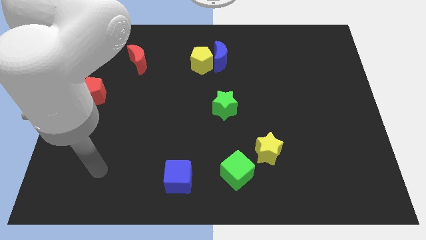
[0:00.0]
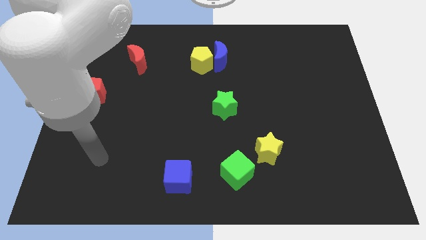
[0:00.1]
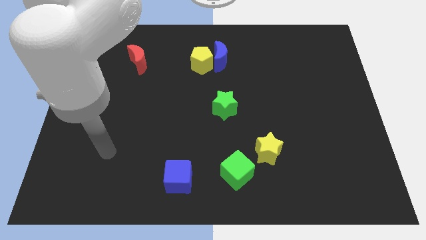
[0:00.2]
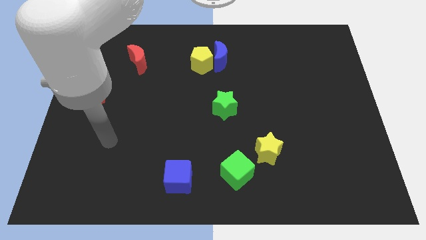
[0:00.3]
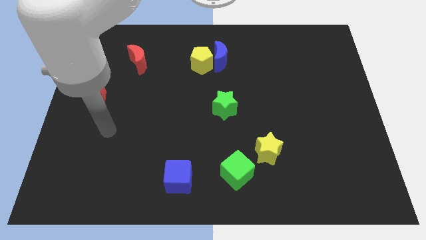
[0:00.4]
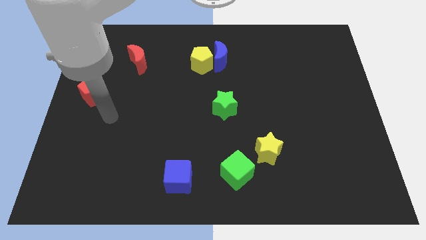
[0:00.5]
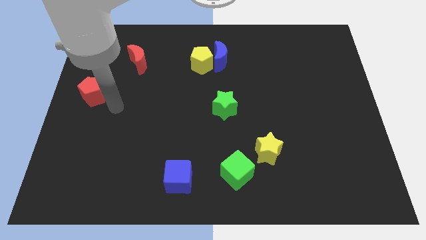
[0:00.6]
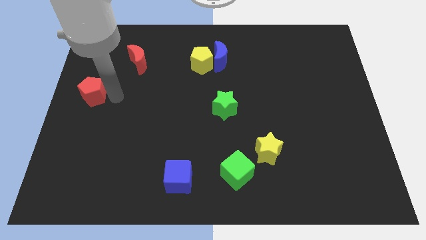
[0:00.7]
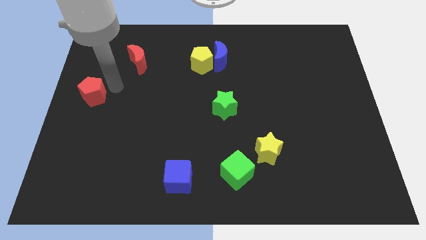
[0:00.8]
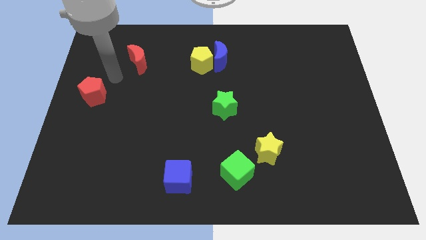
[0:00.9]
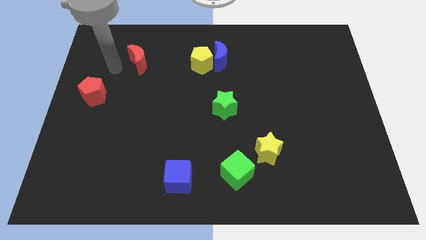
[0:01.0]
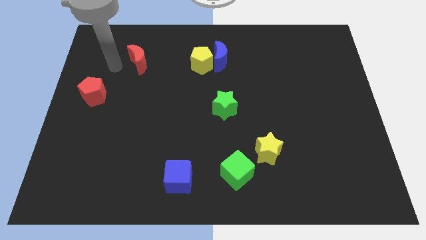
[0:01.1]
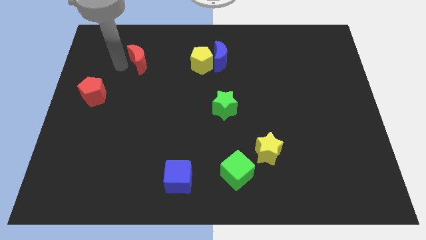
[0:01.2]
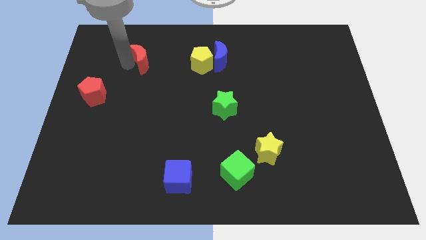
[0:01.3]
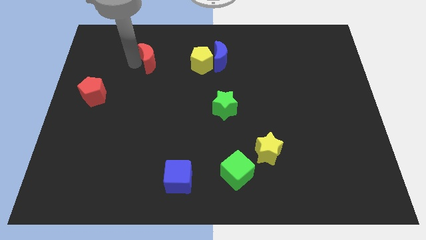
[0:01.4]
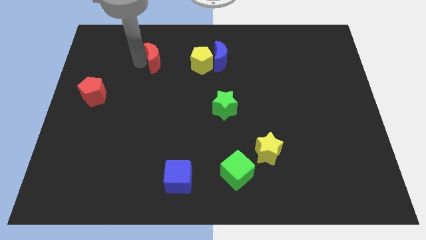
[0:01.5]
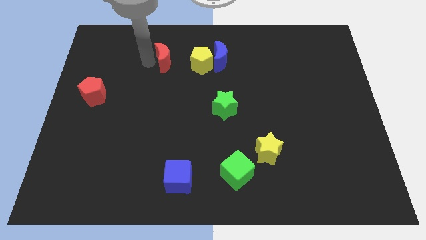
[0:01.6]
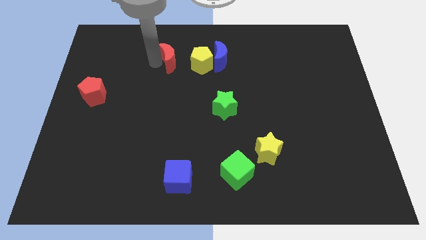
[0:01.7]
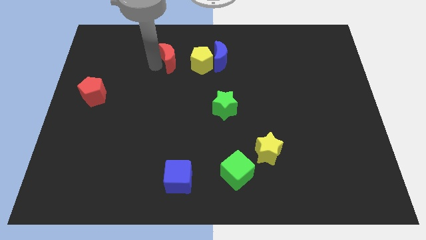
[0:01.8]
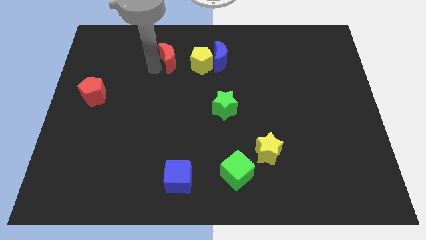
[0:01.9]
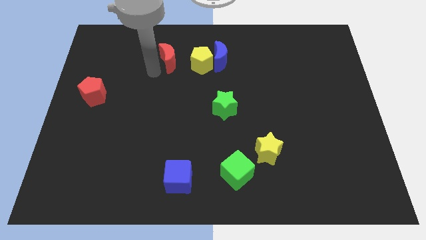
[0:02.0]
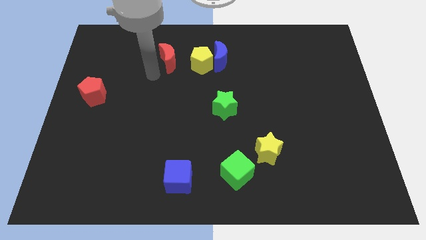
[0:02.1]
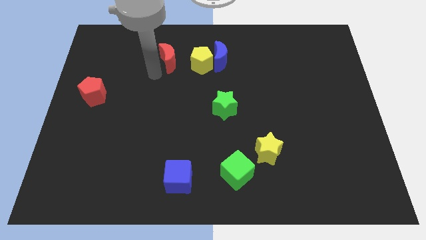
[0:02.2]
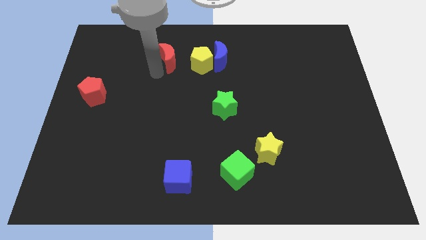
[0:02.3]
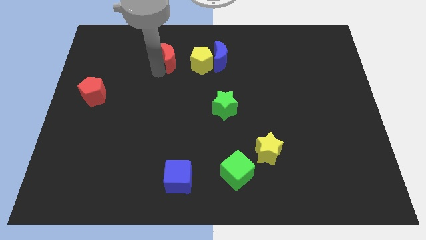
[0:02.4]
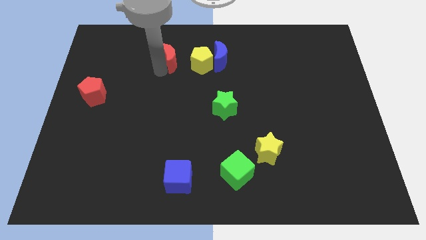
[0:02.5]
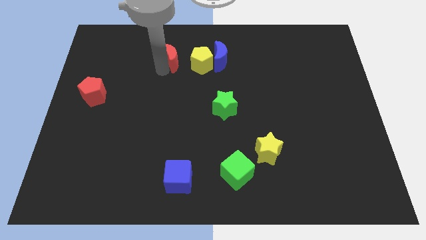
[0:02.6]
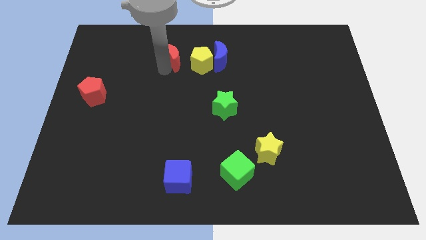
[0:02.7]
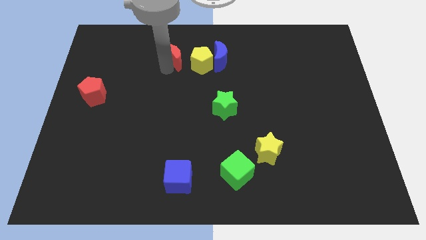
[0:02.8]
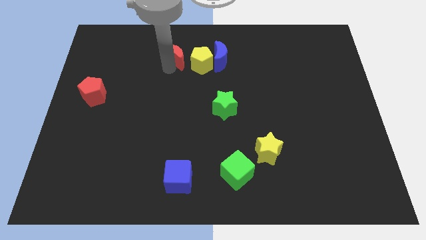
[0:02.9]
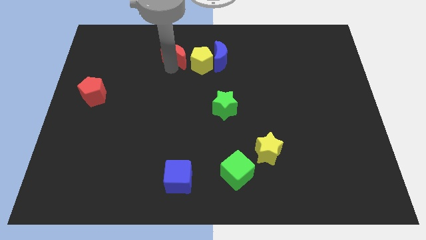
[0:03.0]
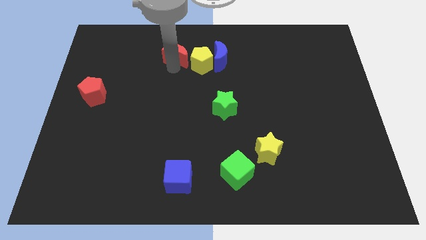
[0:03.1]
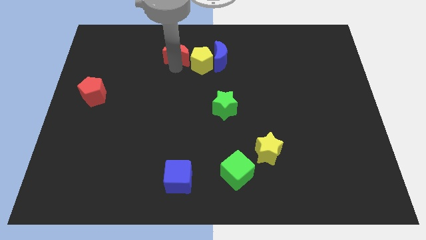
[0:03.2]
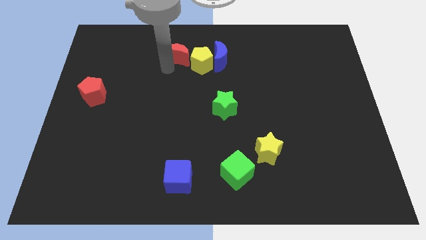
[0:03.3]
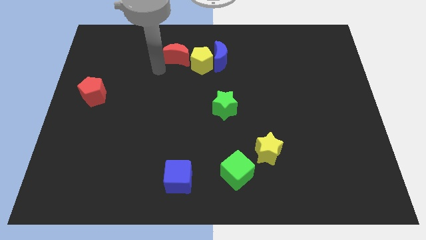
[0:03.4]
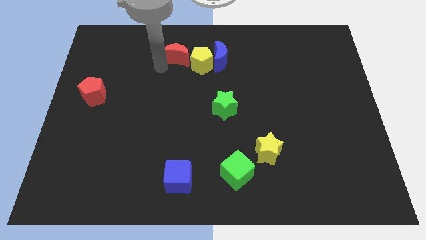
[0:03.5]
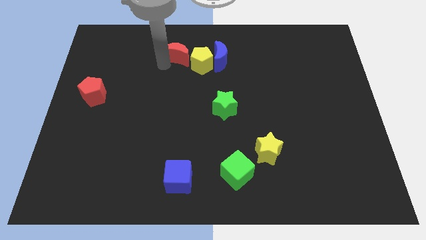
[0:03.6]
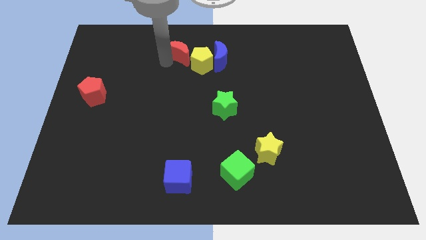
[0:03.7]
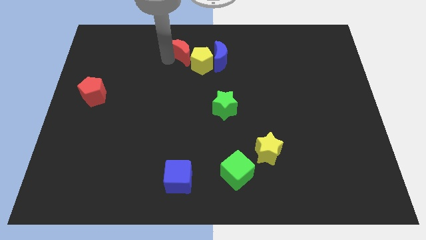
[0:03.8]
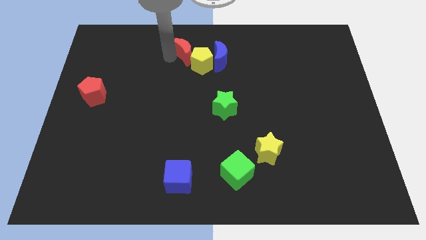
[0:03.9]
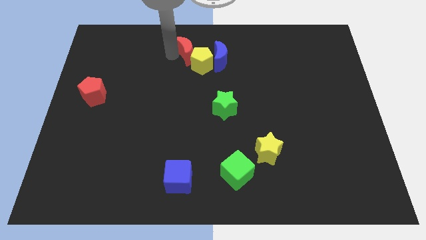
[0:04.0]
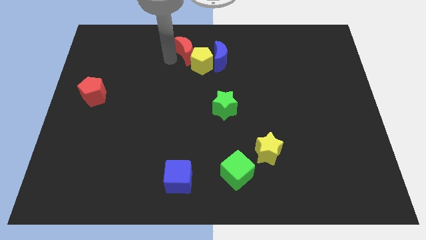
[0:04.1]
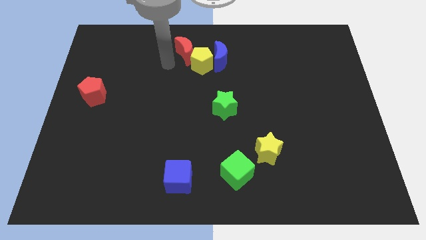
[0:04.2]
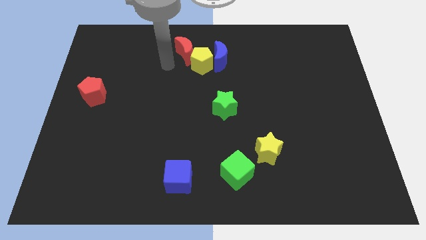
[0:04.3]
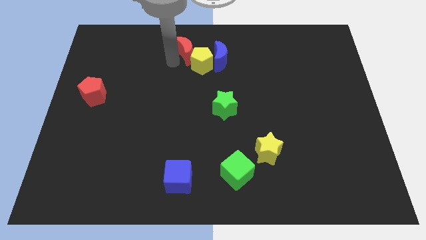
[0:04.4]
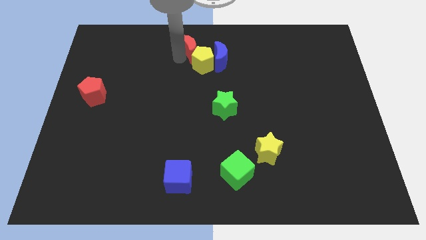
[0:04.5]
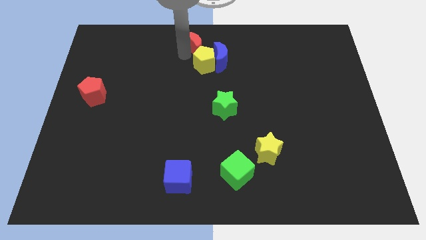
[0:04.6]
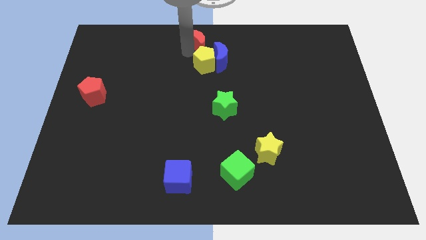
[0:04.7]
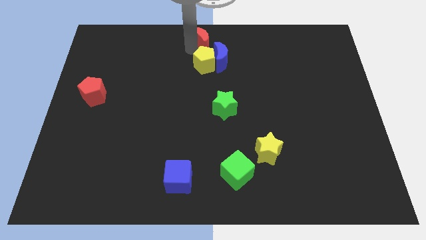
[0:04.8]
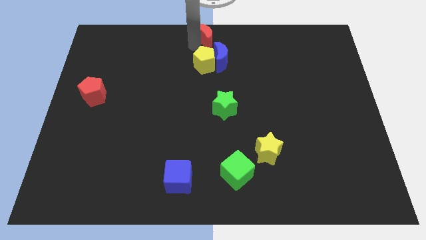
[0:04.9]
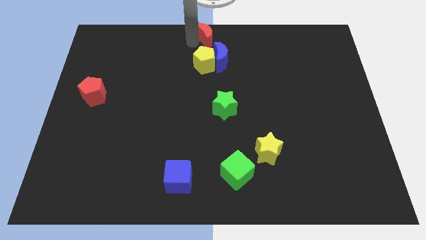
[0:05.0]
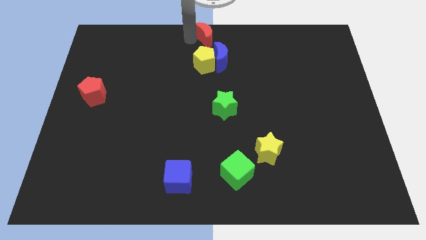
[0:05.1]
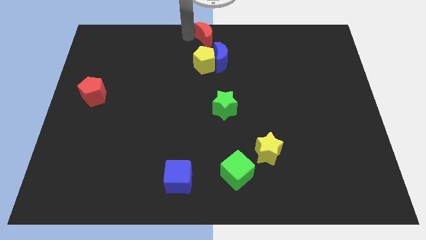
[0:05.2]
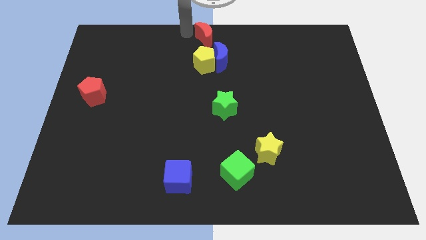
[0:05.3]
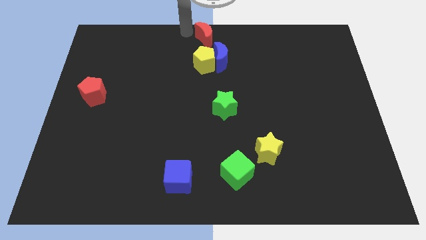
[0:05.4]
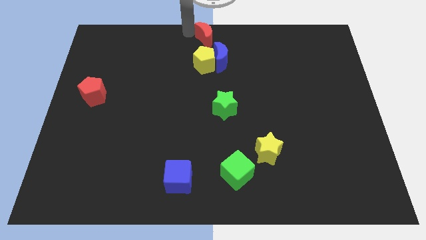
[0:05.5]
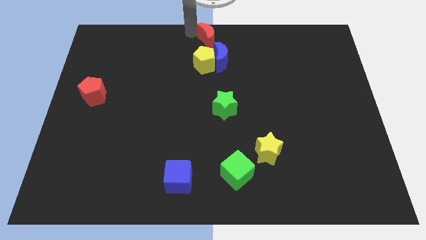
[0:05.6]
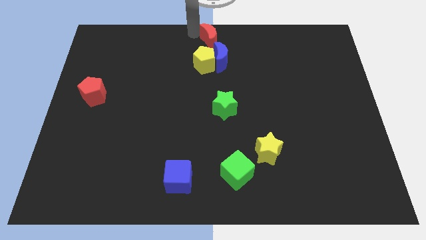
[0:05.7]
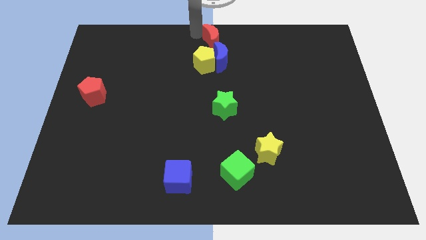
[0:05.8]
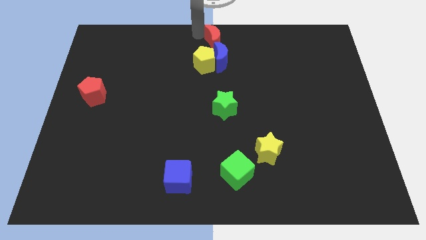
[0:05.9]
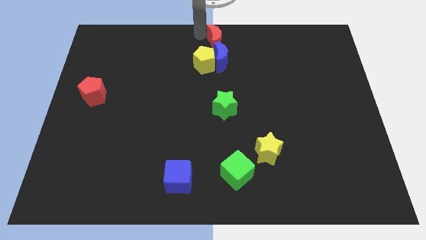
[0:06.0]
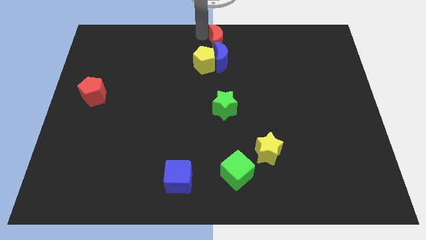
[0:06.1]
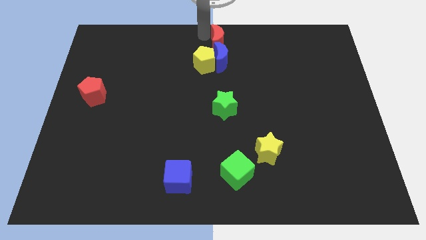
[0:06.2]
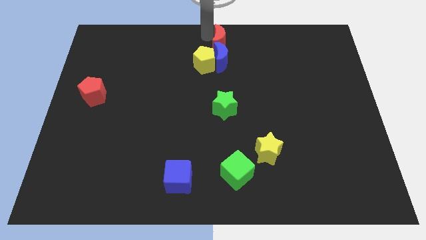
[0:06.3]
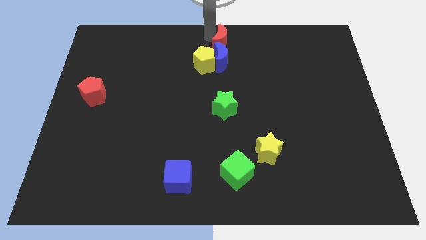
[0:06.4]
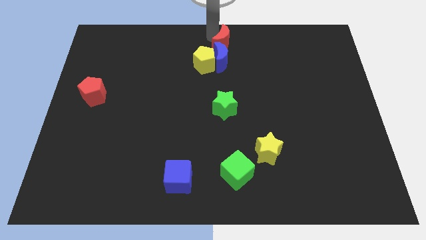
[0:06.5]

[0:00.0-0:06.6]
slide the red moon to the right

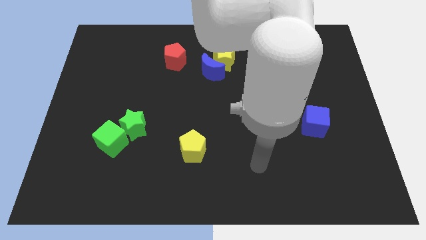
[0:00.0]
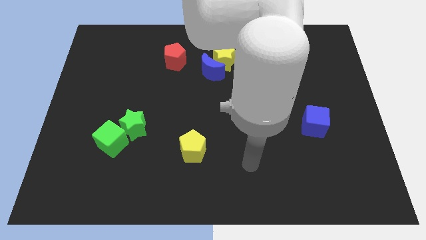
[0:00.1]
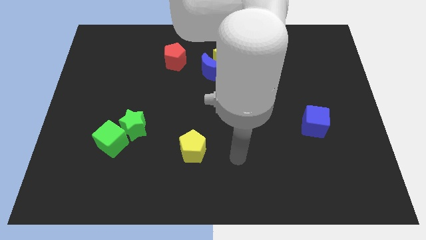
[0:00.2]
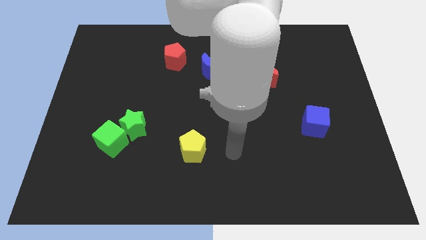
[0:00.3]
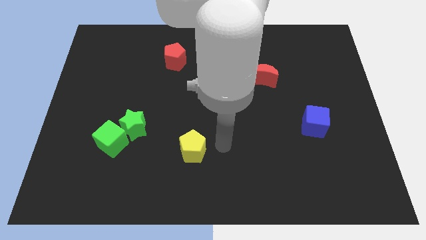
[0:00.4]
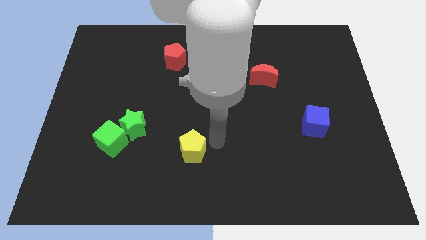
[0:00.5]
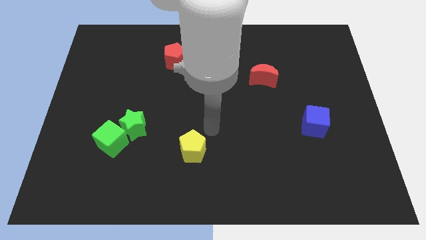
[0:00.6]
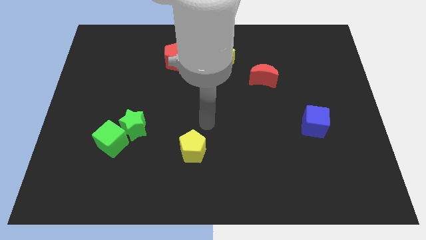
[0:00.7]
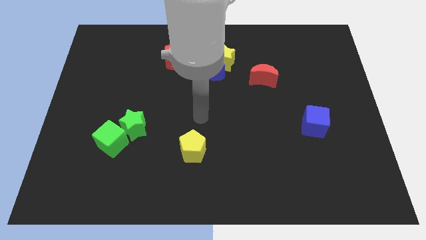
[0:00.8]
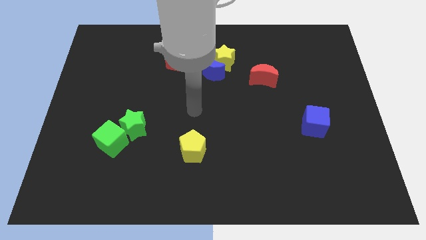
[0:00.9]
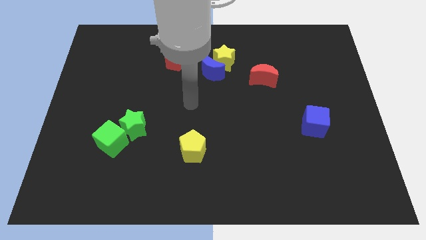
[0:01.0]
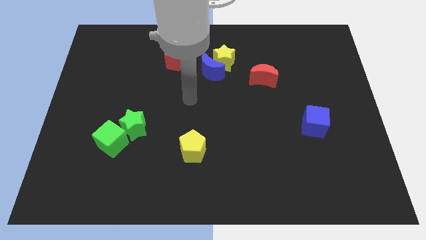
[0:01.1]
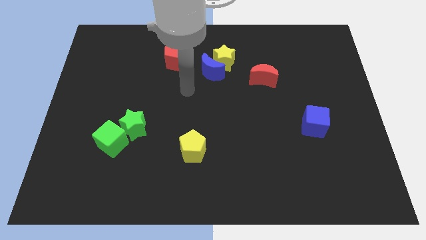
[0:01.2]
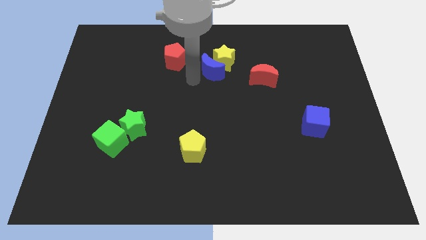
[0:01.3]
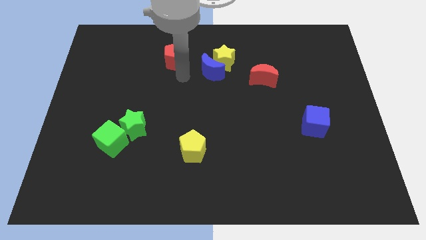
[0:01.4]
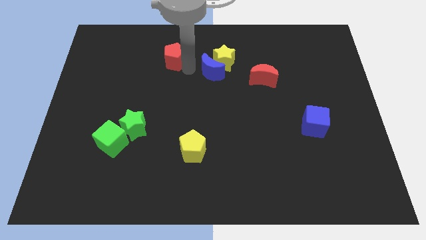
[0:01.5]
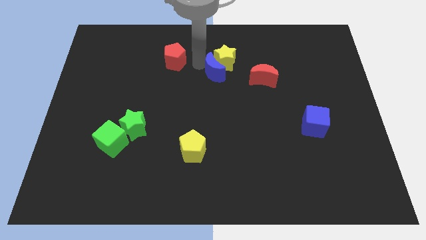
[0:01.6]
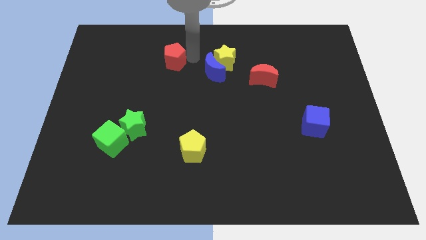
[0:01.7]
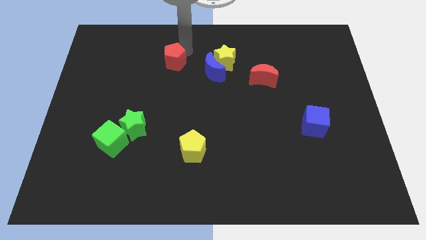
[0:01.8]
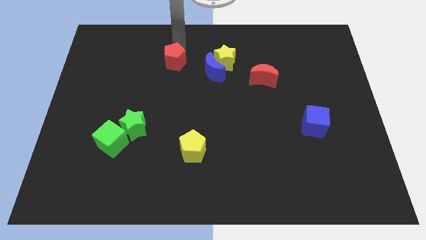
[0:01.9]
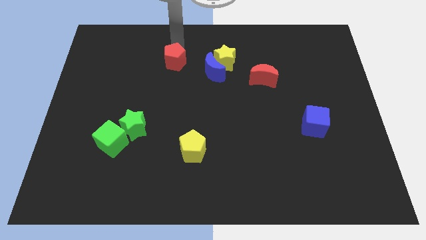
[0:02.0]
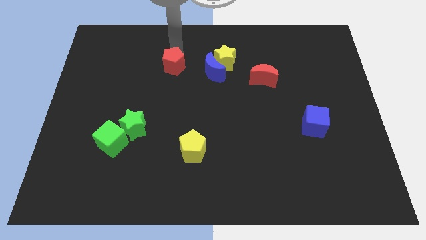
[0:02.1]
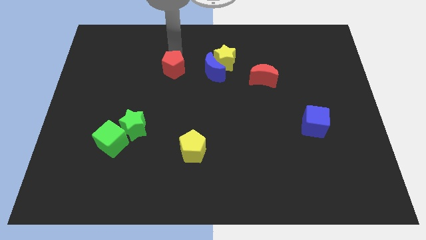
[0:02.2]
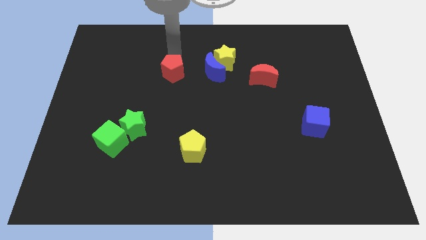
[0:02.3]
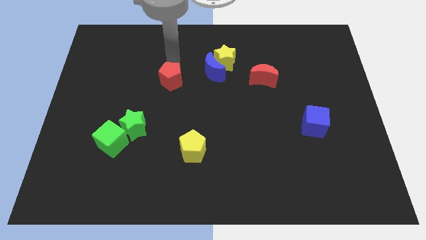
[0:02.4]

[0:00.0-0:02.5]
slide the red pentagon down slightly
